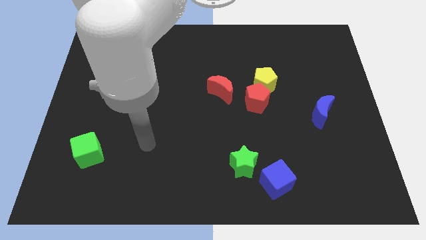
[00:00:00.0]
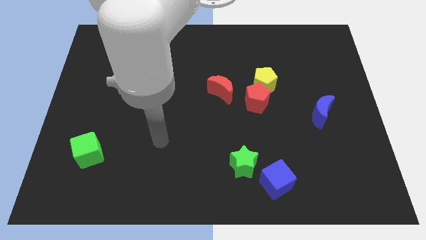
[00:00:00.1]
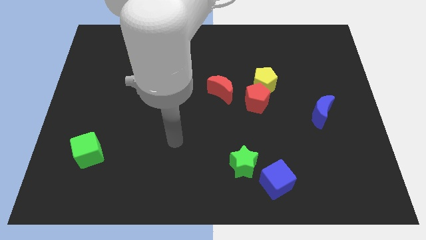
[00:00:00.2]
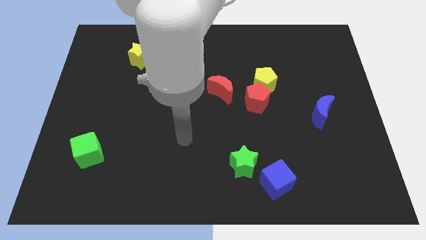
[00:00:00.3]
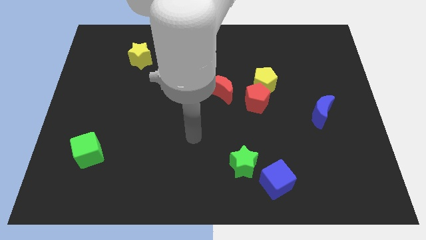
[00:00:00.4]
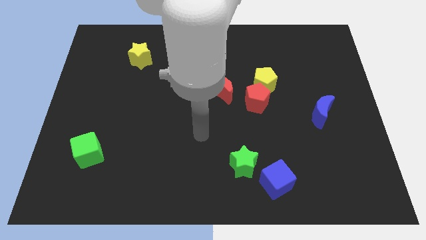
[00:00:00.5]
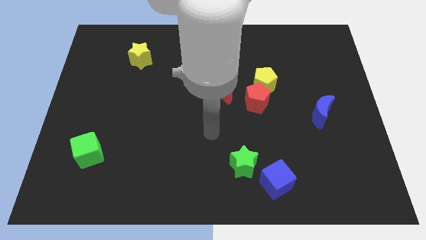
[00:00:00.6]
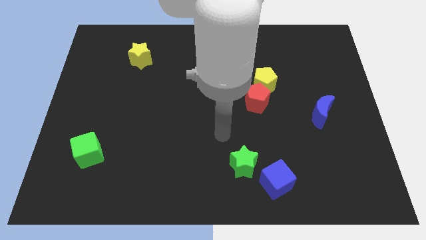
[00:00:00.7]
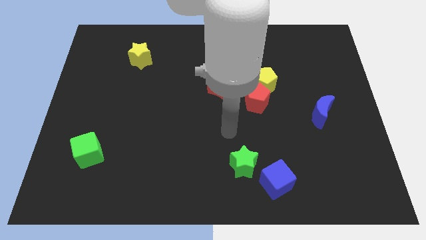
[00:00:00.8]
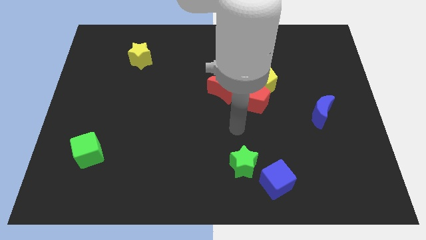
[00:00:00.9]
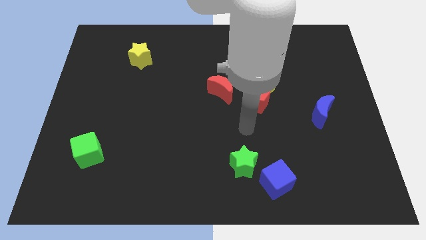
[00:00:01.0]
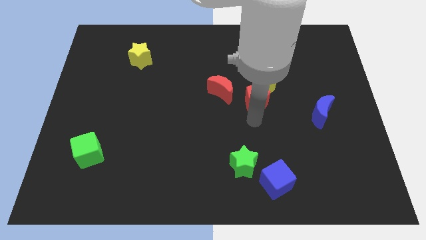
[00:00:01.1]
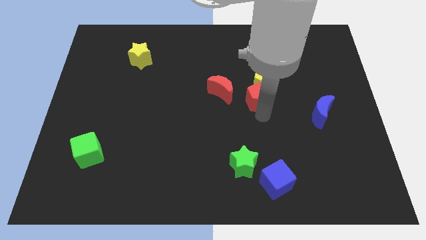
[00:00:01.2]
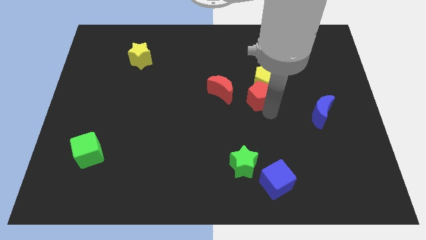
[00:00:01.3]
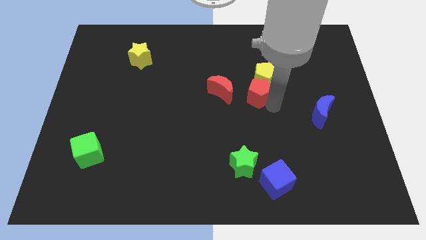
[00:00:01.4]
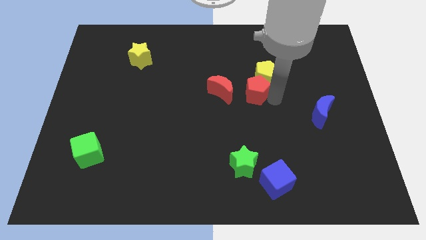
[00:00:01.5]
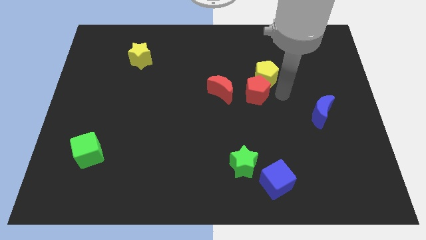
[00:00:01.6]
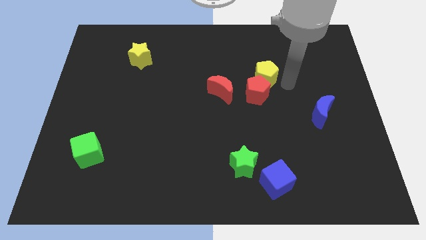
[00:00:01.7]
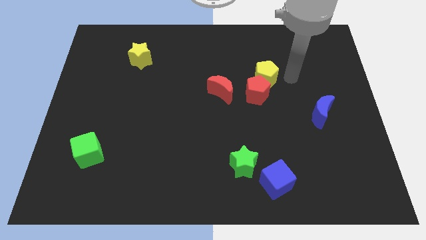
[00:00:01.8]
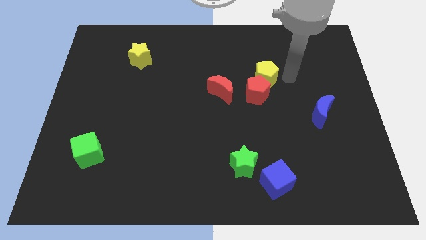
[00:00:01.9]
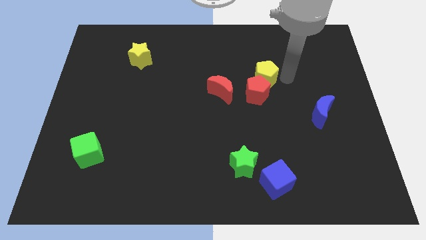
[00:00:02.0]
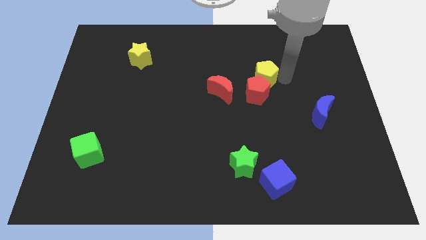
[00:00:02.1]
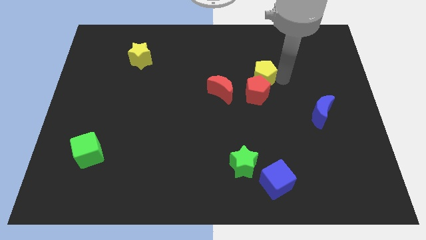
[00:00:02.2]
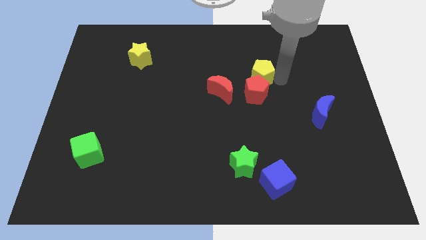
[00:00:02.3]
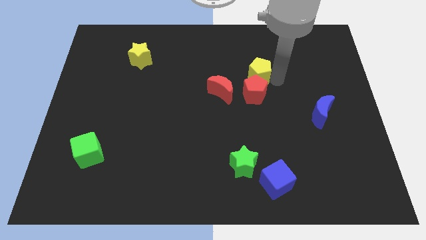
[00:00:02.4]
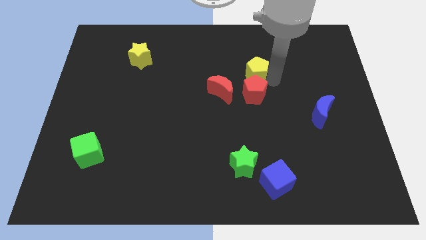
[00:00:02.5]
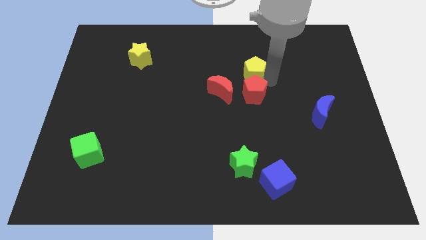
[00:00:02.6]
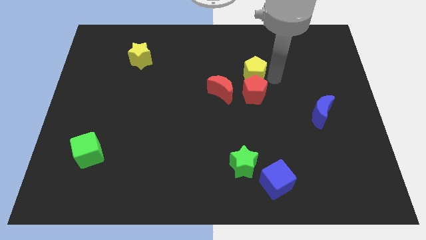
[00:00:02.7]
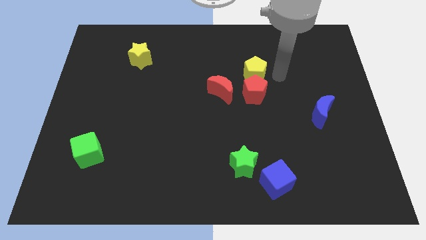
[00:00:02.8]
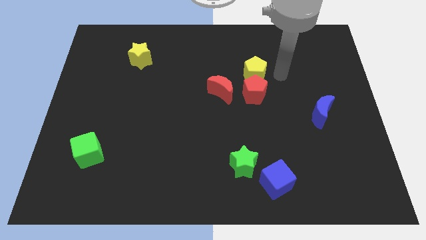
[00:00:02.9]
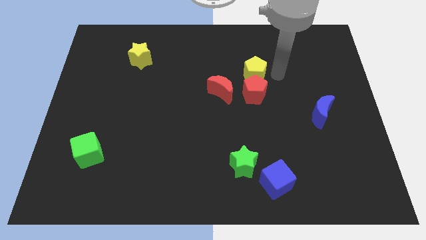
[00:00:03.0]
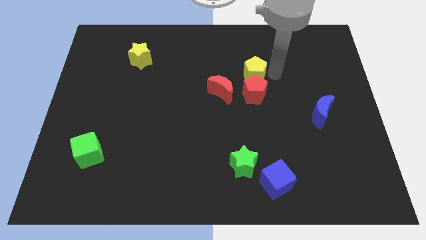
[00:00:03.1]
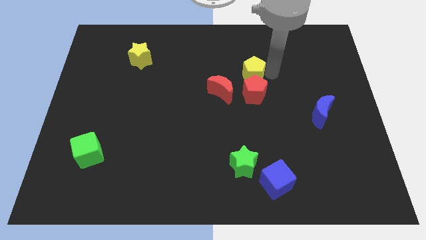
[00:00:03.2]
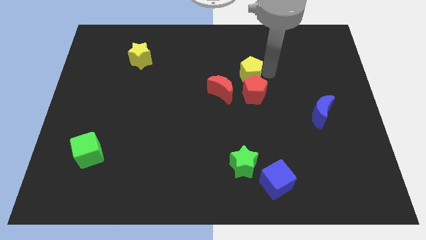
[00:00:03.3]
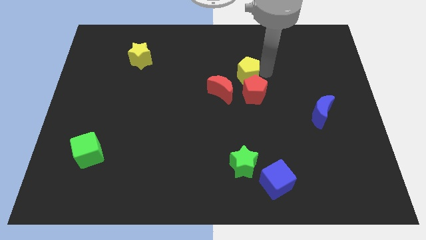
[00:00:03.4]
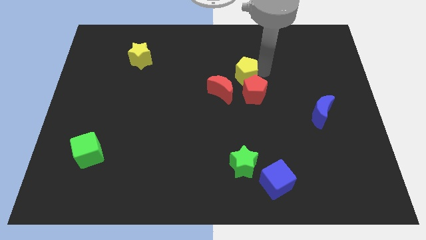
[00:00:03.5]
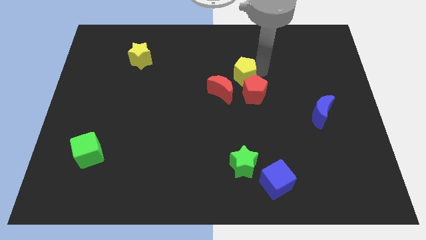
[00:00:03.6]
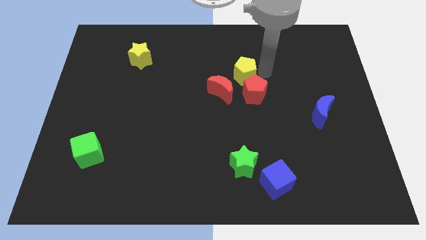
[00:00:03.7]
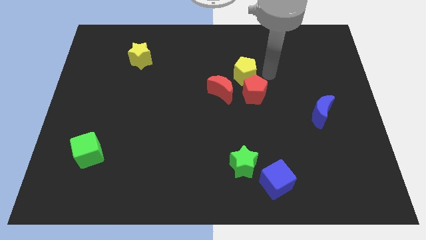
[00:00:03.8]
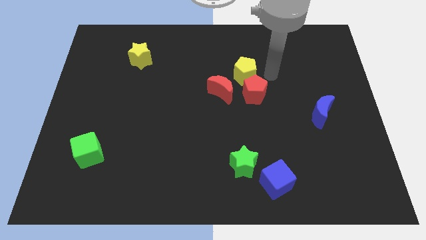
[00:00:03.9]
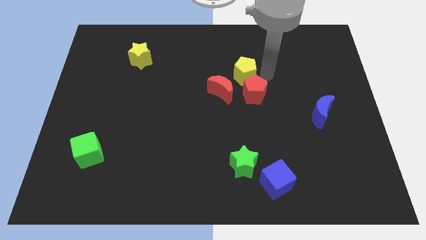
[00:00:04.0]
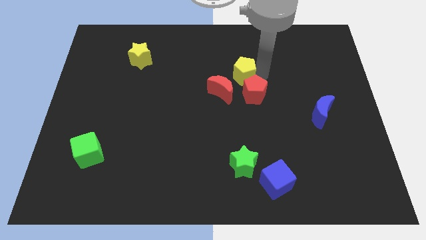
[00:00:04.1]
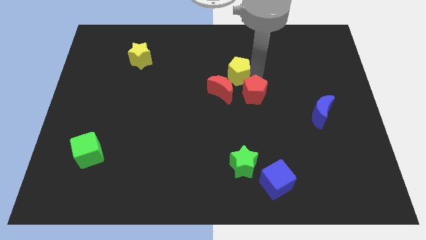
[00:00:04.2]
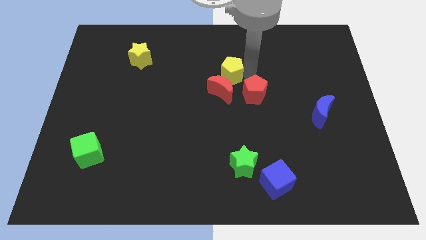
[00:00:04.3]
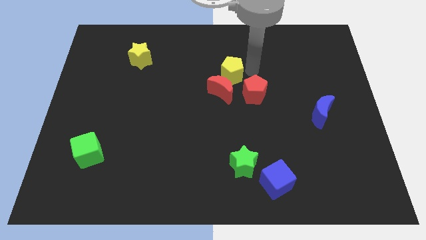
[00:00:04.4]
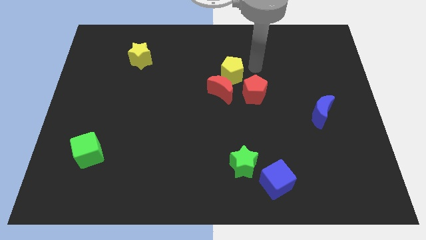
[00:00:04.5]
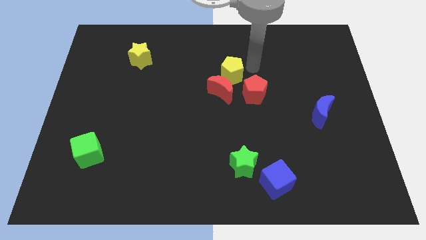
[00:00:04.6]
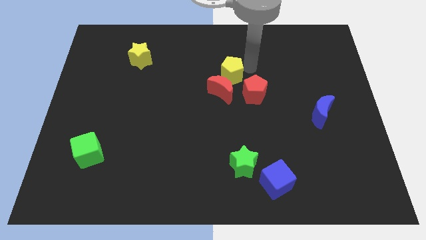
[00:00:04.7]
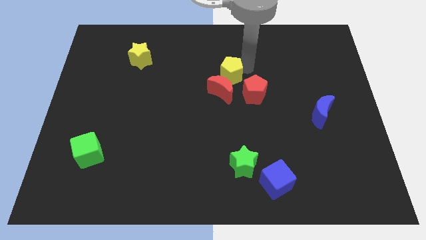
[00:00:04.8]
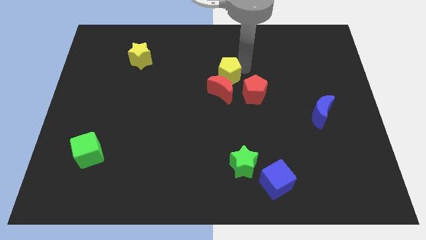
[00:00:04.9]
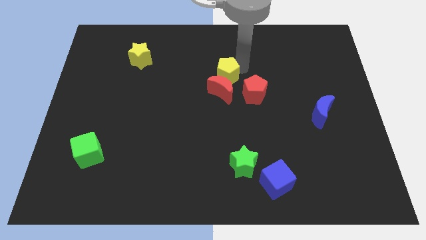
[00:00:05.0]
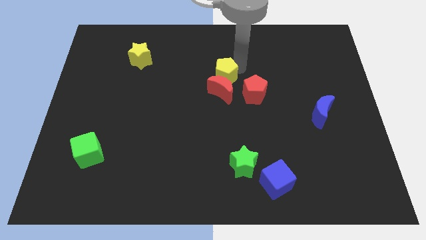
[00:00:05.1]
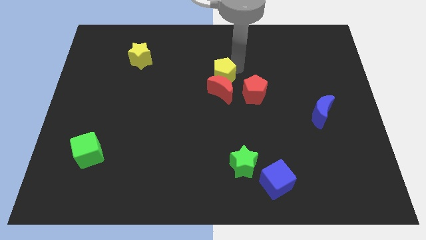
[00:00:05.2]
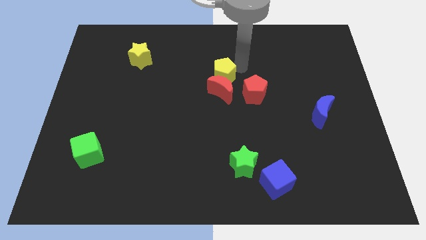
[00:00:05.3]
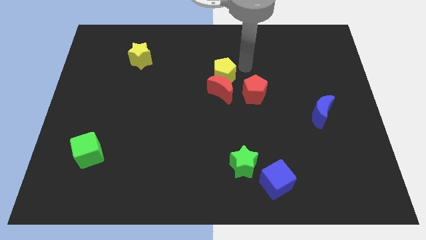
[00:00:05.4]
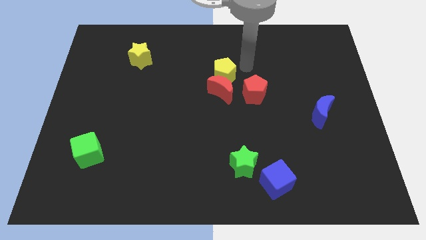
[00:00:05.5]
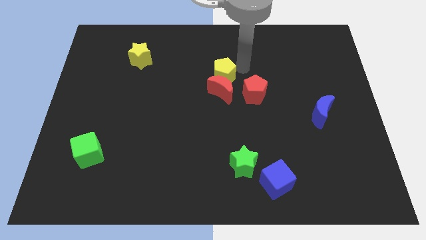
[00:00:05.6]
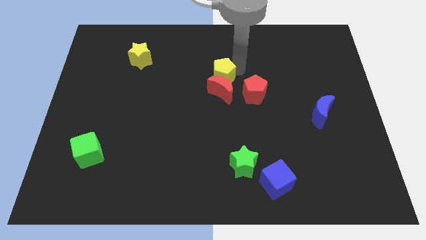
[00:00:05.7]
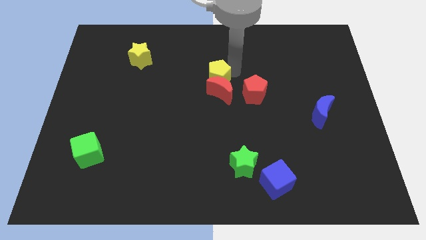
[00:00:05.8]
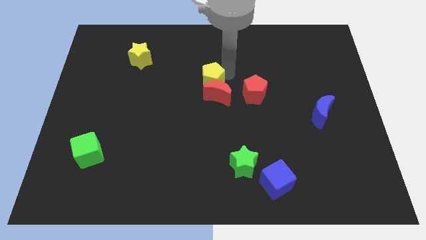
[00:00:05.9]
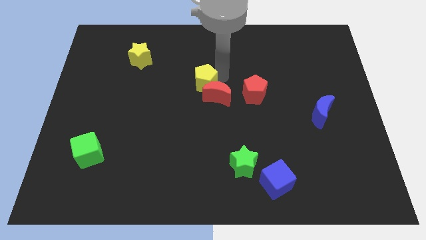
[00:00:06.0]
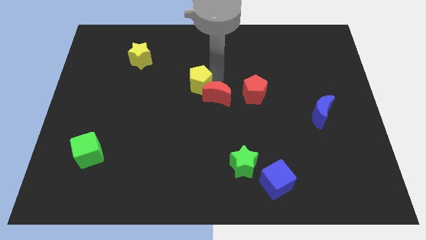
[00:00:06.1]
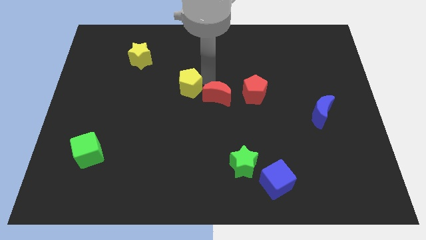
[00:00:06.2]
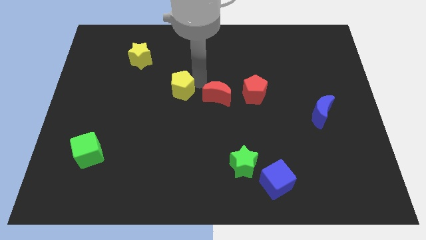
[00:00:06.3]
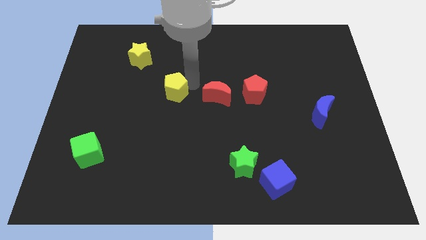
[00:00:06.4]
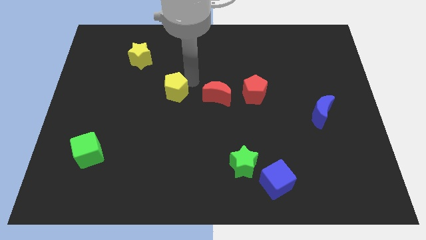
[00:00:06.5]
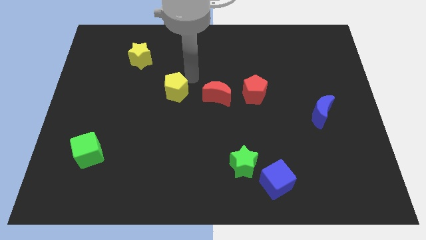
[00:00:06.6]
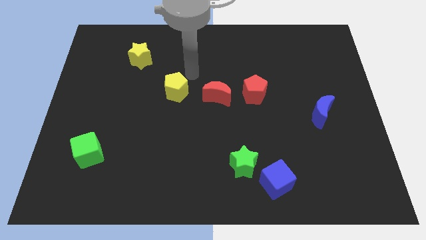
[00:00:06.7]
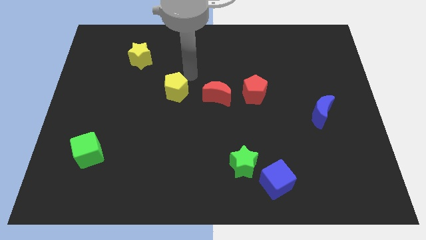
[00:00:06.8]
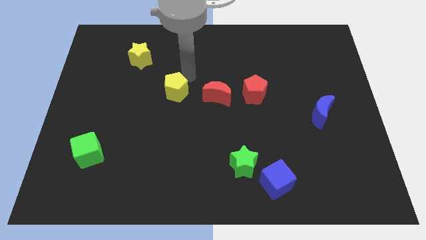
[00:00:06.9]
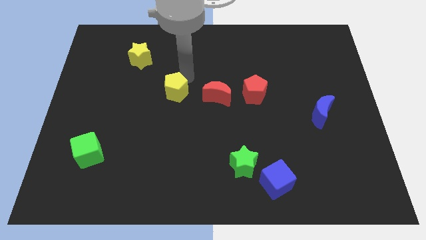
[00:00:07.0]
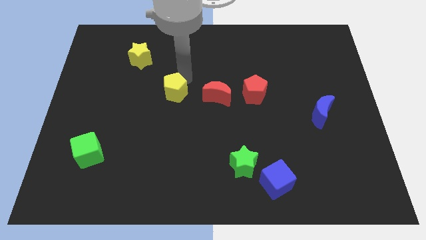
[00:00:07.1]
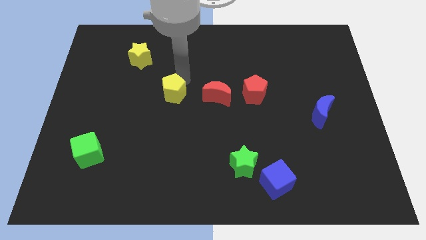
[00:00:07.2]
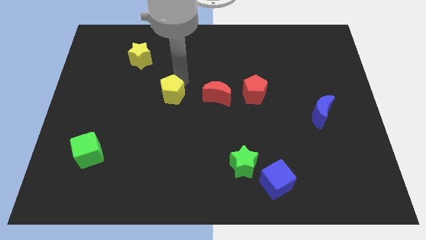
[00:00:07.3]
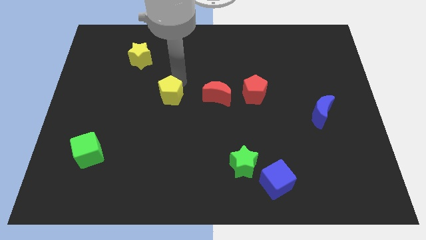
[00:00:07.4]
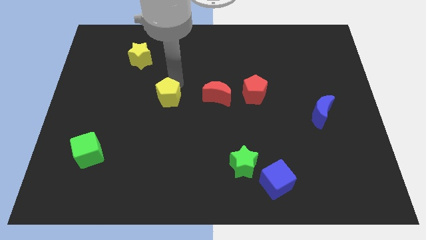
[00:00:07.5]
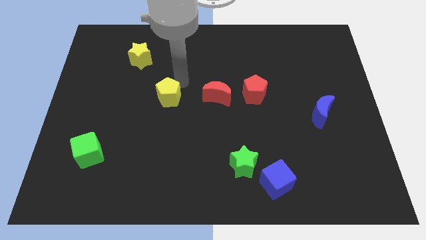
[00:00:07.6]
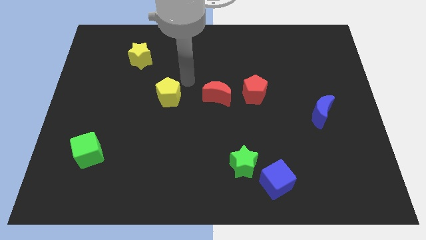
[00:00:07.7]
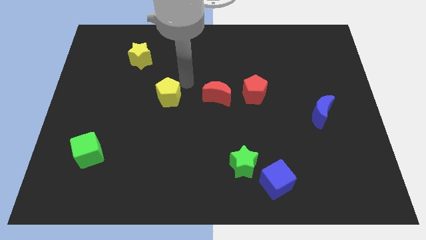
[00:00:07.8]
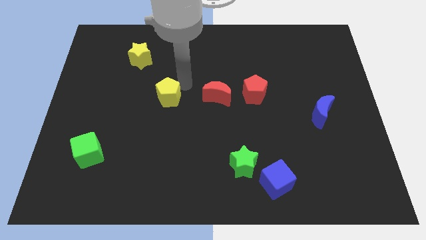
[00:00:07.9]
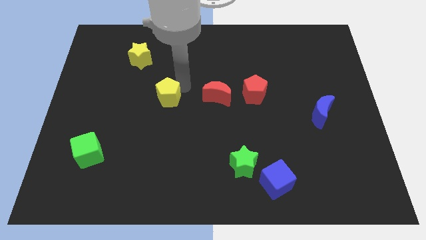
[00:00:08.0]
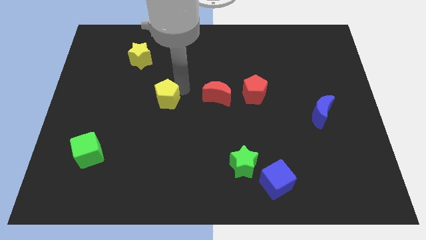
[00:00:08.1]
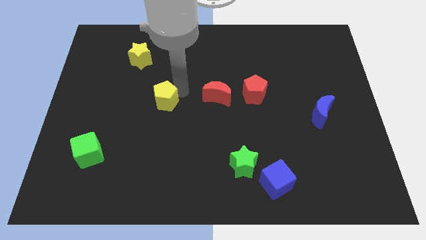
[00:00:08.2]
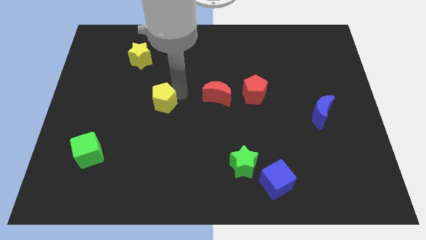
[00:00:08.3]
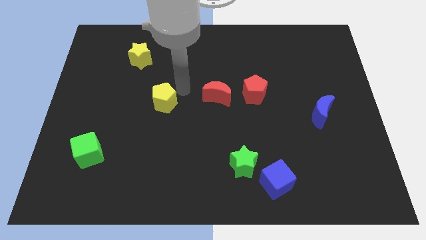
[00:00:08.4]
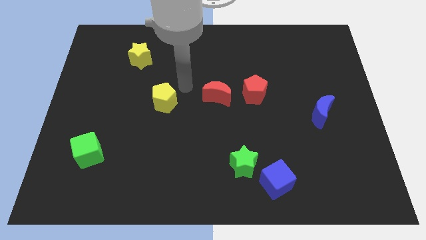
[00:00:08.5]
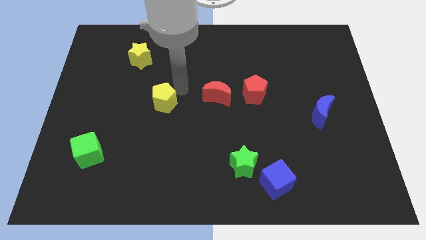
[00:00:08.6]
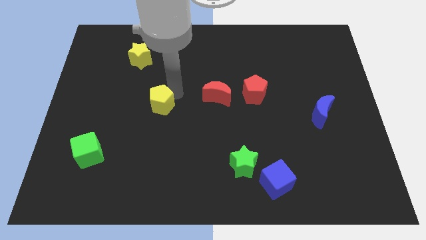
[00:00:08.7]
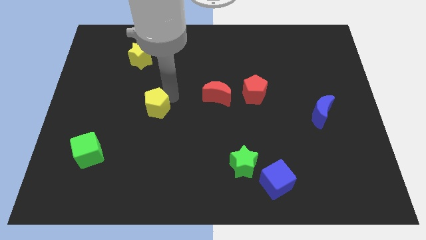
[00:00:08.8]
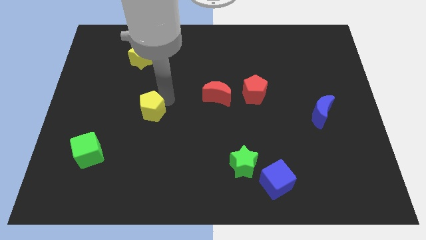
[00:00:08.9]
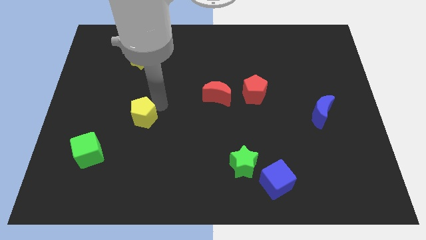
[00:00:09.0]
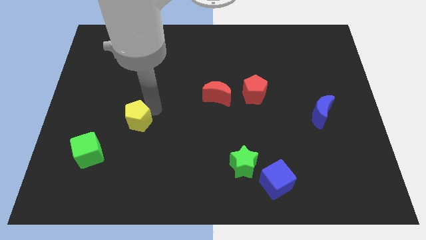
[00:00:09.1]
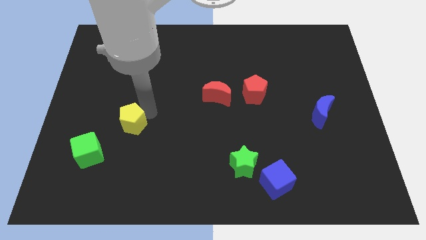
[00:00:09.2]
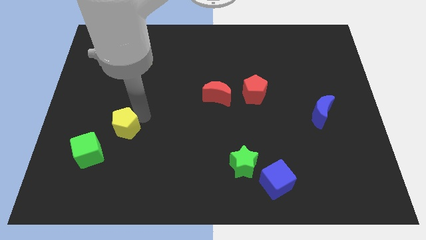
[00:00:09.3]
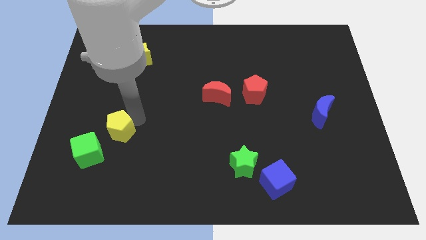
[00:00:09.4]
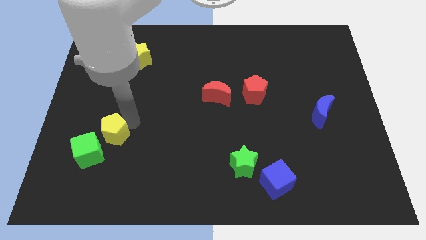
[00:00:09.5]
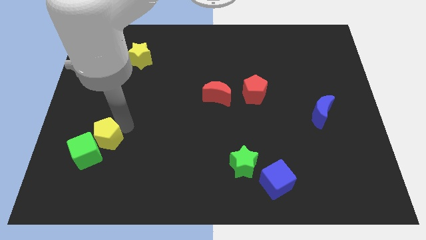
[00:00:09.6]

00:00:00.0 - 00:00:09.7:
push the yellow pentagon close to the green cube
